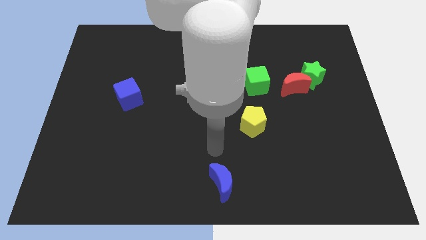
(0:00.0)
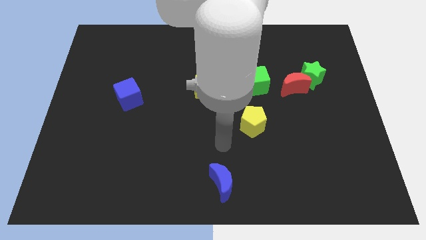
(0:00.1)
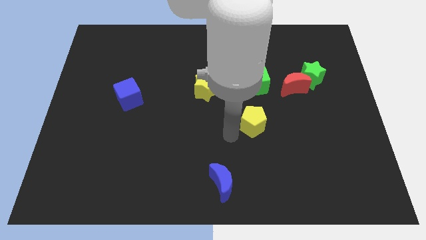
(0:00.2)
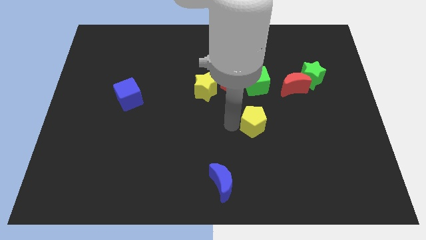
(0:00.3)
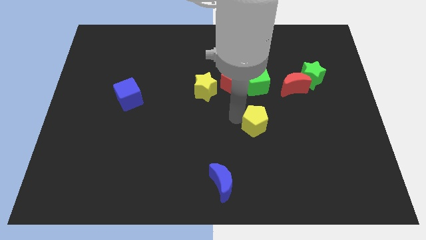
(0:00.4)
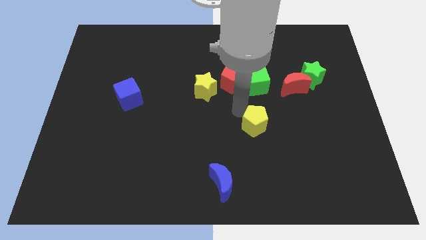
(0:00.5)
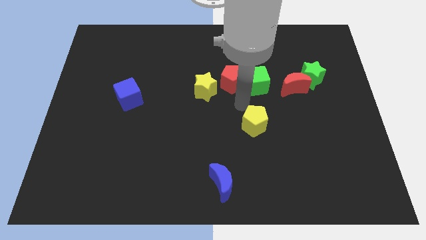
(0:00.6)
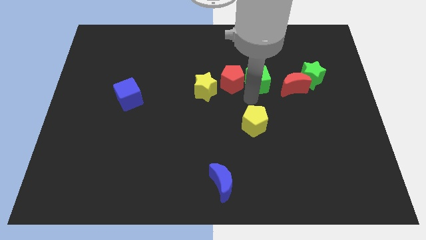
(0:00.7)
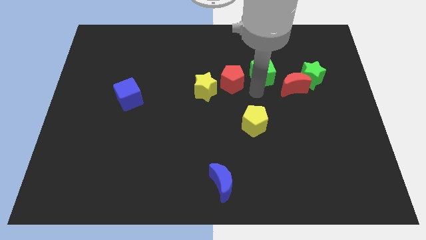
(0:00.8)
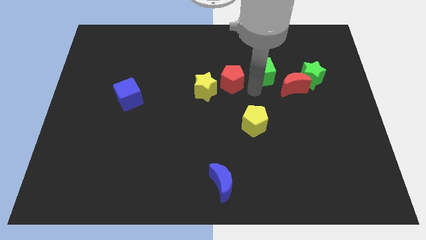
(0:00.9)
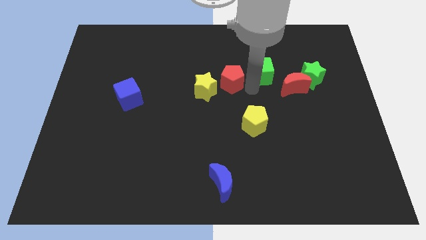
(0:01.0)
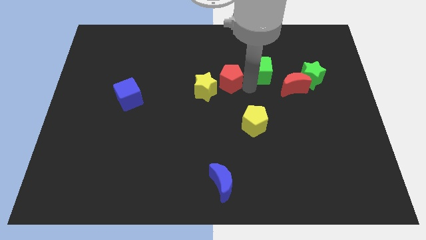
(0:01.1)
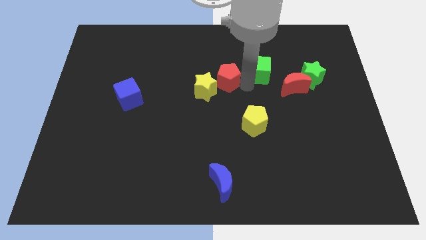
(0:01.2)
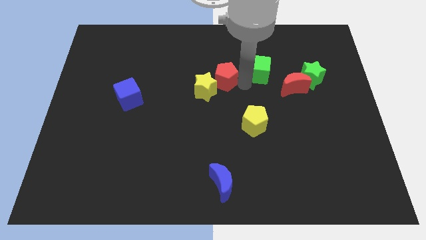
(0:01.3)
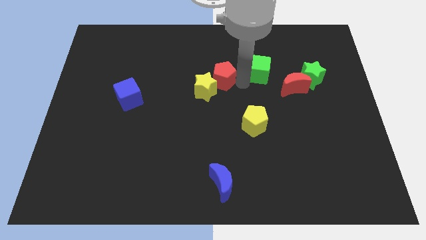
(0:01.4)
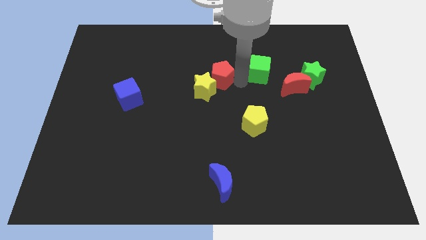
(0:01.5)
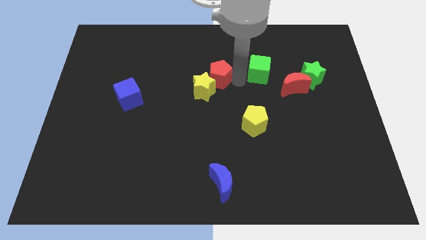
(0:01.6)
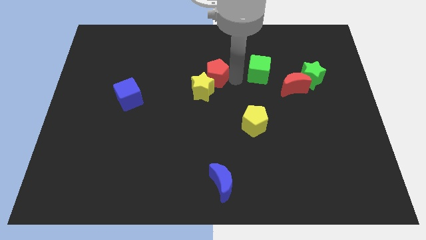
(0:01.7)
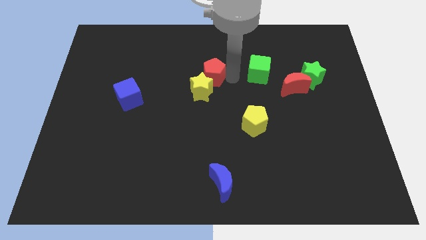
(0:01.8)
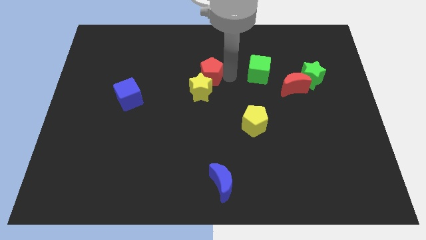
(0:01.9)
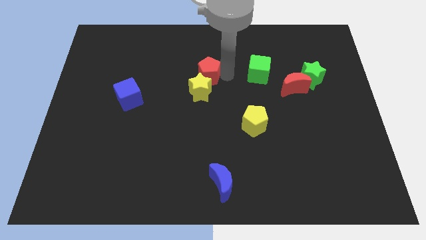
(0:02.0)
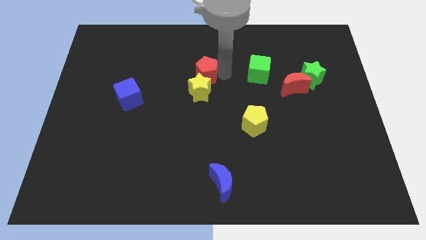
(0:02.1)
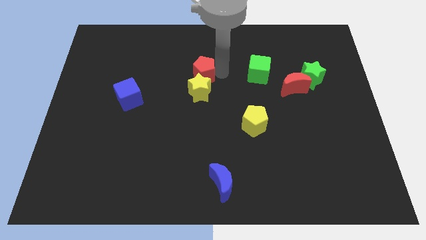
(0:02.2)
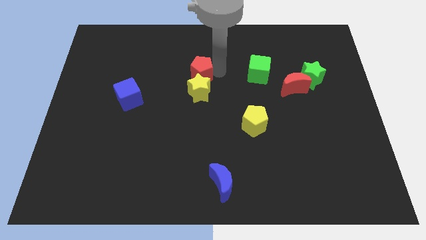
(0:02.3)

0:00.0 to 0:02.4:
slightly push the red pentagon to the left

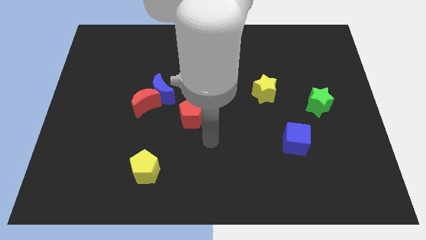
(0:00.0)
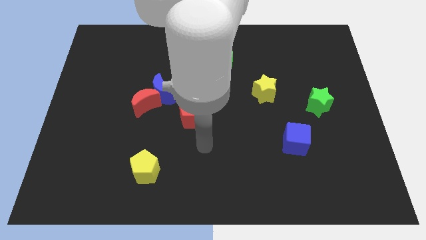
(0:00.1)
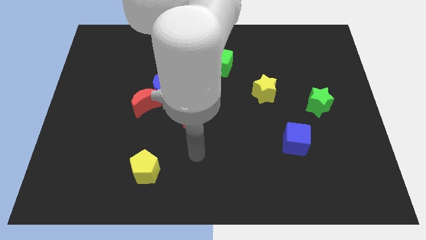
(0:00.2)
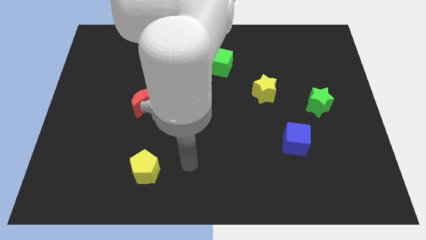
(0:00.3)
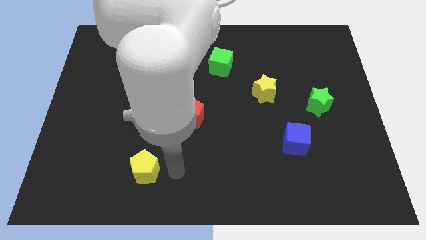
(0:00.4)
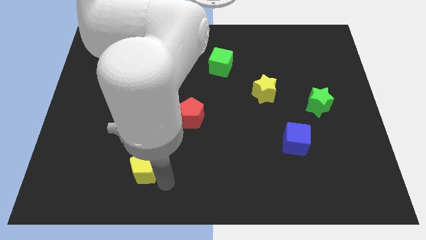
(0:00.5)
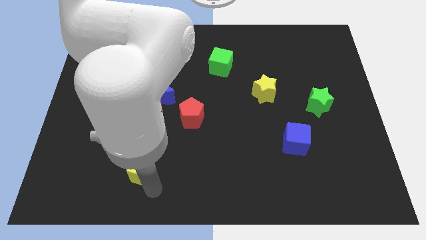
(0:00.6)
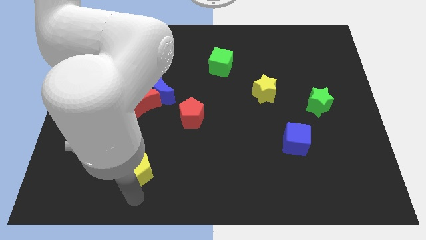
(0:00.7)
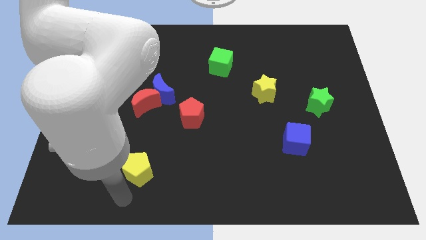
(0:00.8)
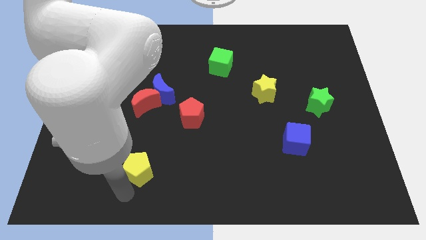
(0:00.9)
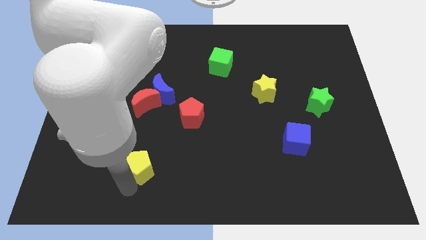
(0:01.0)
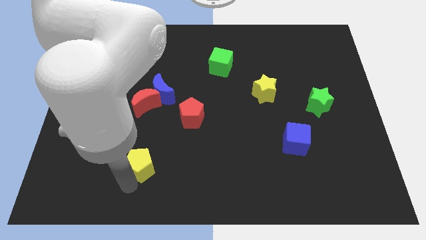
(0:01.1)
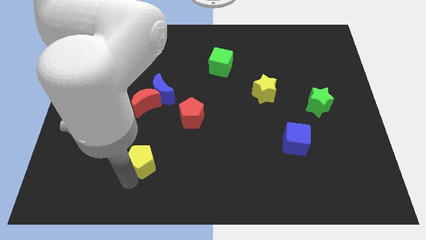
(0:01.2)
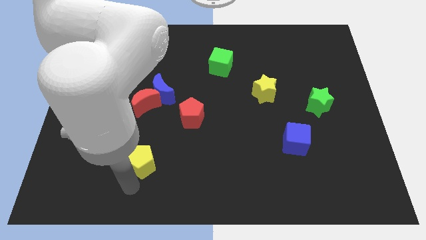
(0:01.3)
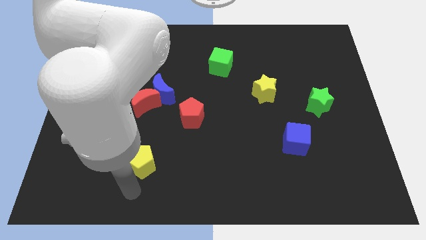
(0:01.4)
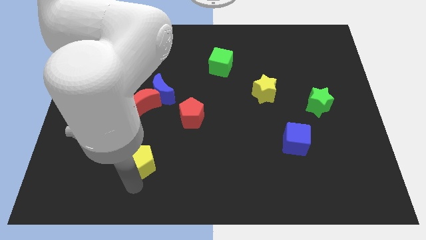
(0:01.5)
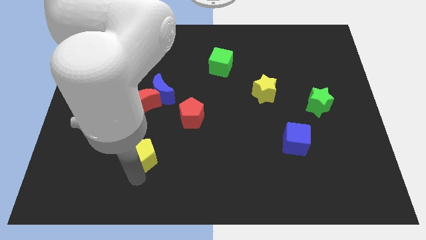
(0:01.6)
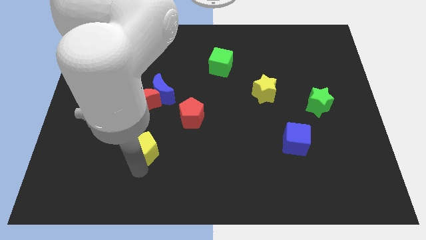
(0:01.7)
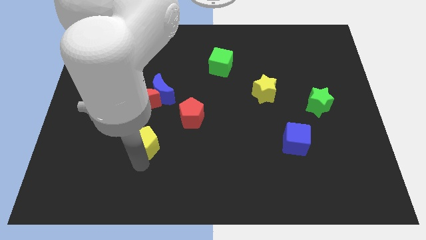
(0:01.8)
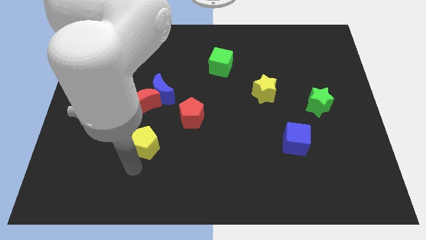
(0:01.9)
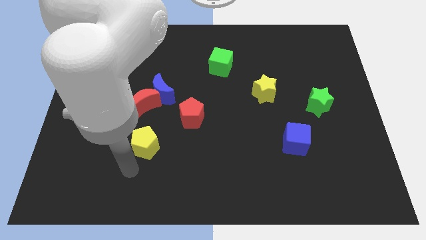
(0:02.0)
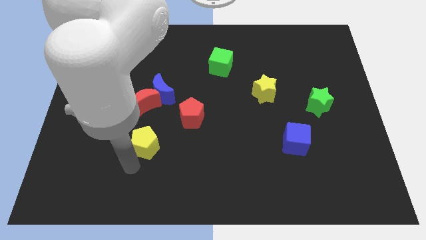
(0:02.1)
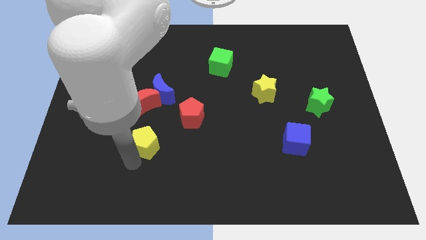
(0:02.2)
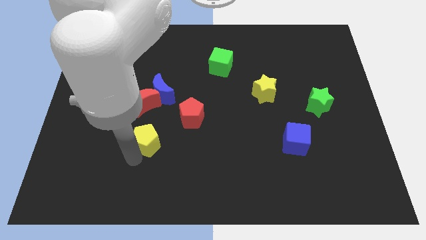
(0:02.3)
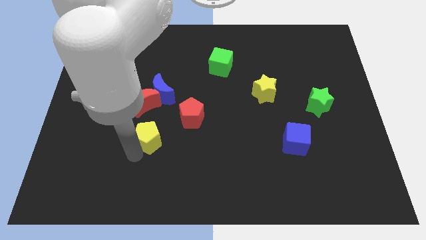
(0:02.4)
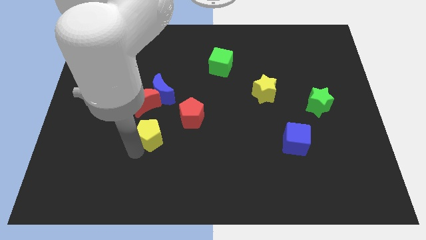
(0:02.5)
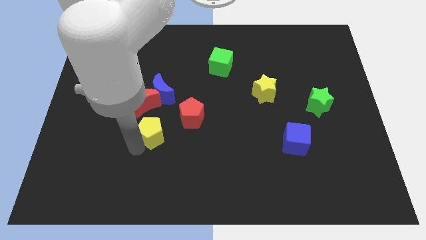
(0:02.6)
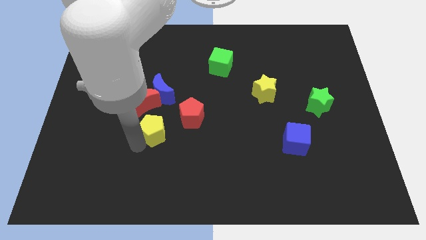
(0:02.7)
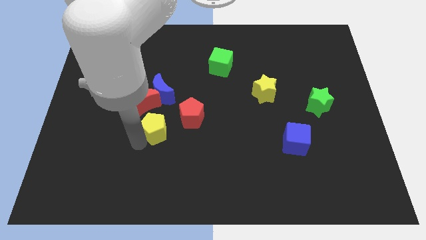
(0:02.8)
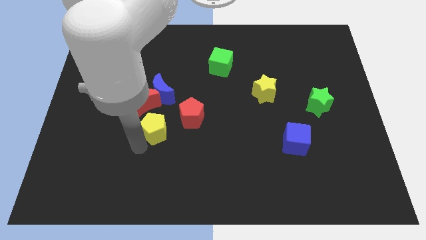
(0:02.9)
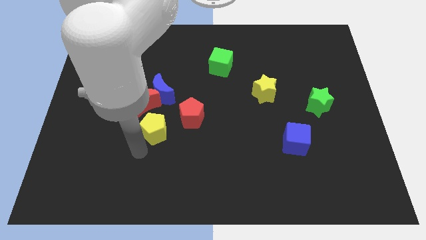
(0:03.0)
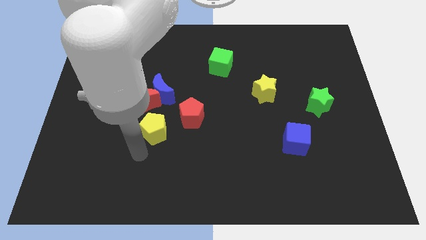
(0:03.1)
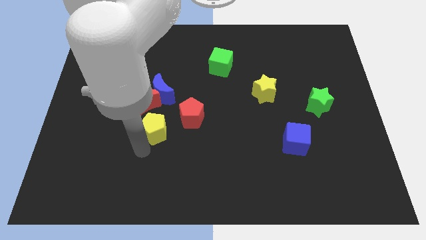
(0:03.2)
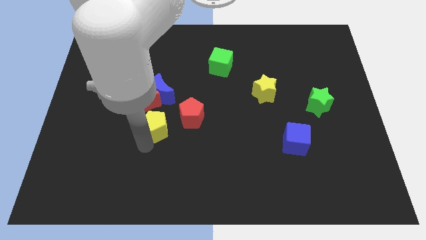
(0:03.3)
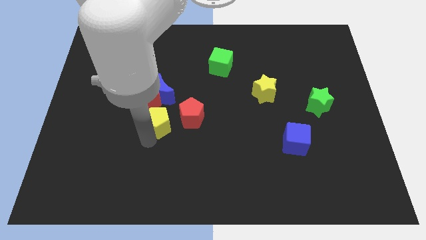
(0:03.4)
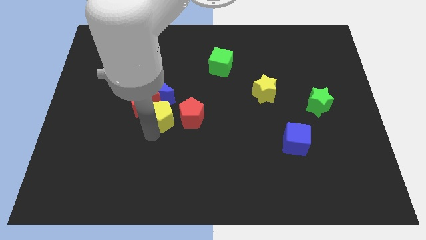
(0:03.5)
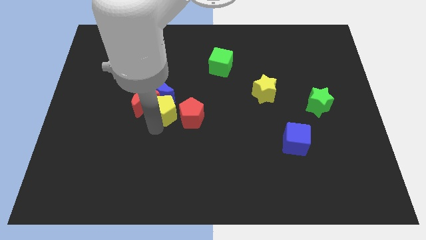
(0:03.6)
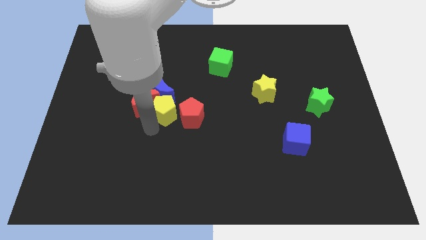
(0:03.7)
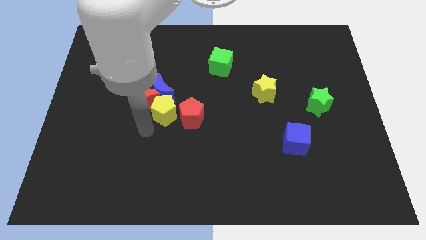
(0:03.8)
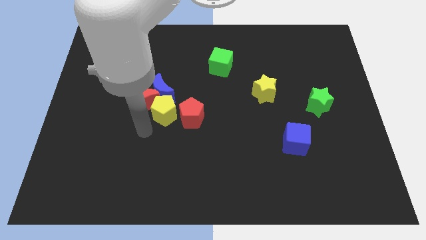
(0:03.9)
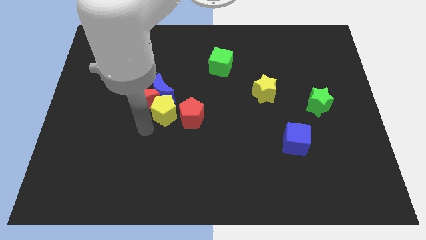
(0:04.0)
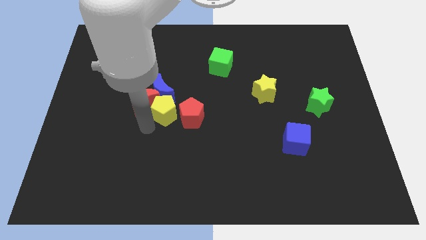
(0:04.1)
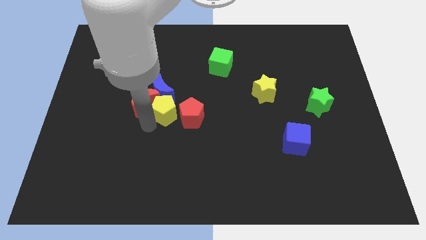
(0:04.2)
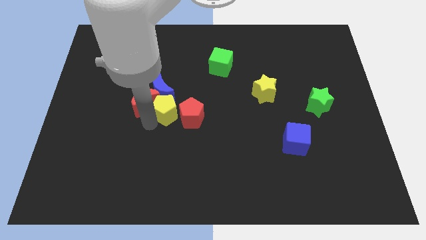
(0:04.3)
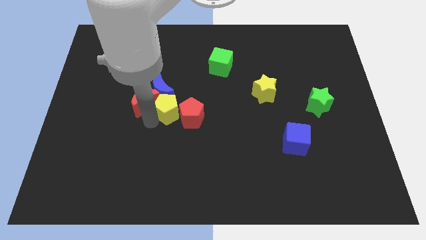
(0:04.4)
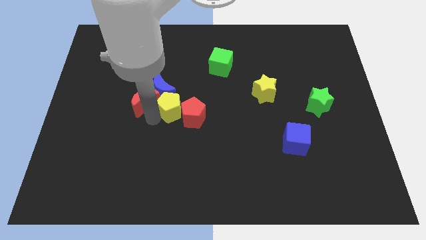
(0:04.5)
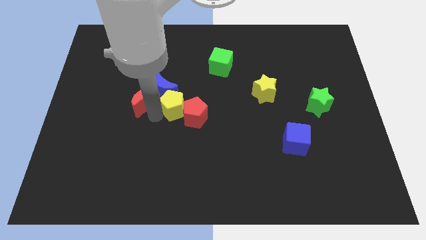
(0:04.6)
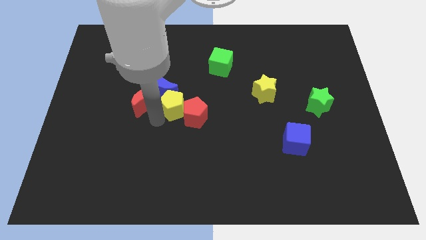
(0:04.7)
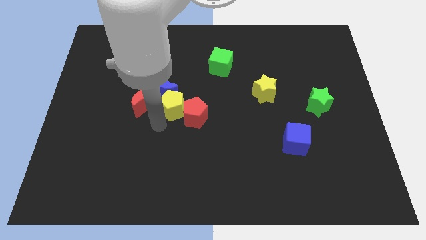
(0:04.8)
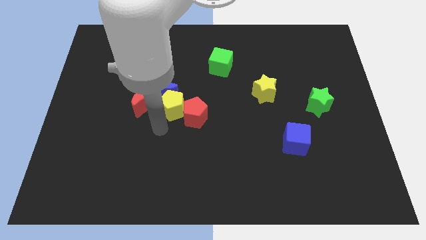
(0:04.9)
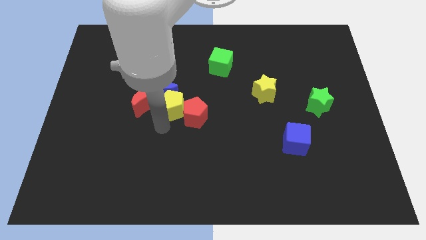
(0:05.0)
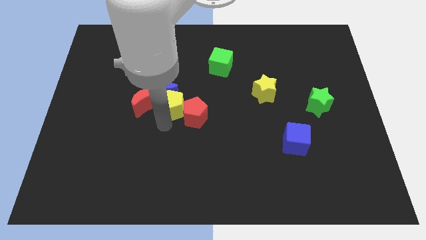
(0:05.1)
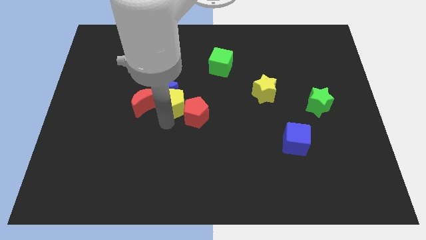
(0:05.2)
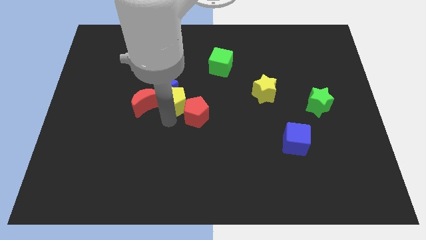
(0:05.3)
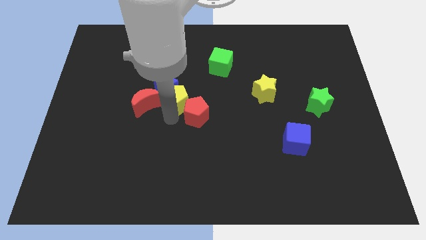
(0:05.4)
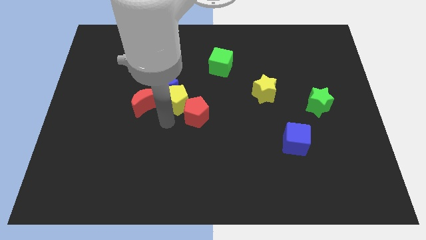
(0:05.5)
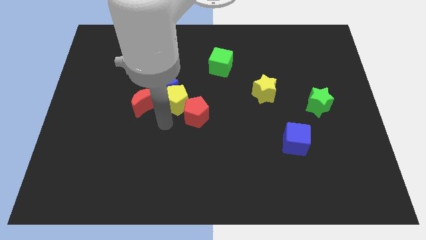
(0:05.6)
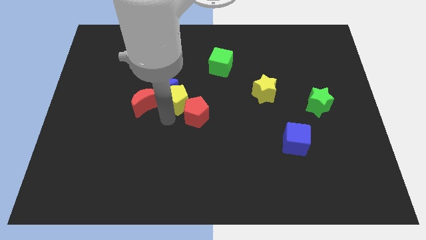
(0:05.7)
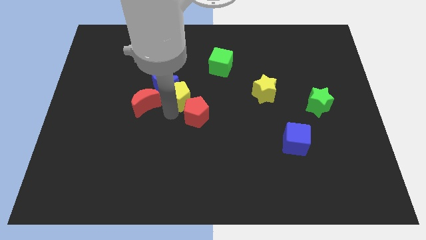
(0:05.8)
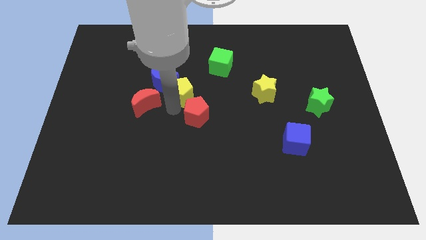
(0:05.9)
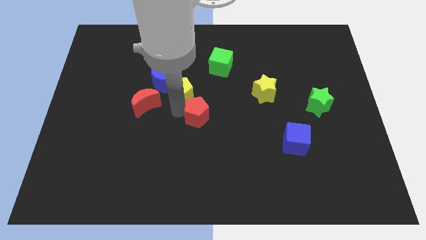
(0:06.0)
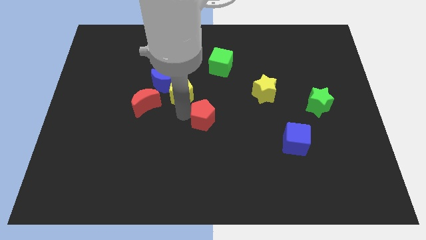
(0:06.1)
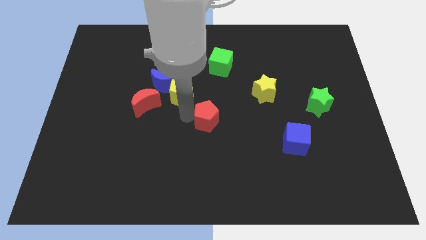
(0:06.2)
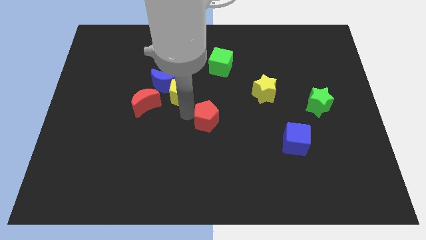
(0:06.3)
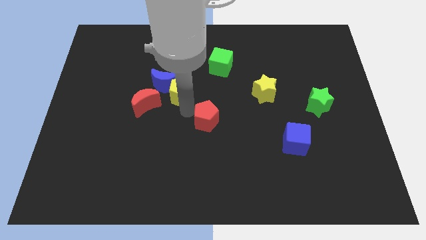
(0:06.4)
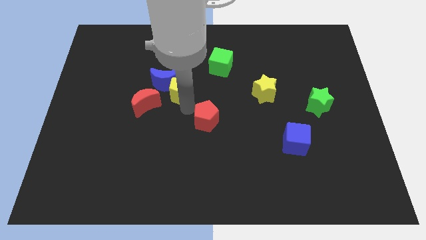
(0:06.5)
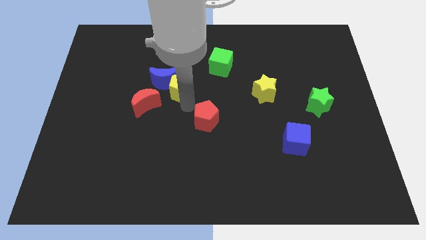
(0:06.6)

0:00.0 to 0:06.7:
move the yellow pentagon upwards
